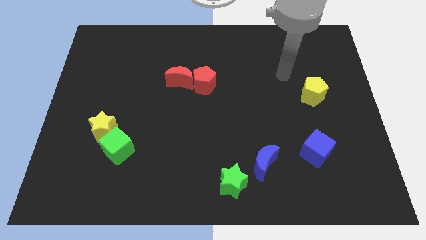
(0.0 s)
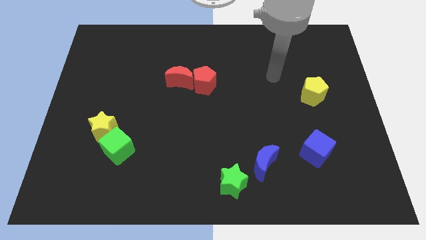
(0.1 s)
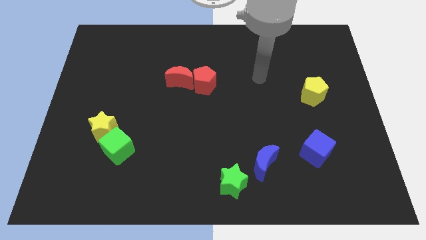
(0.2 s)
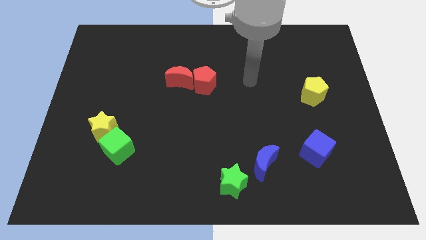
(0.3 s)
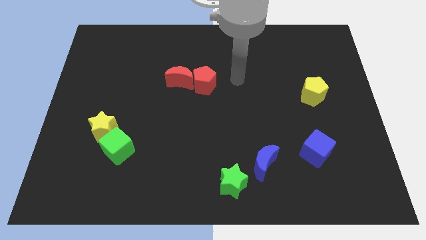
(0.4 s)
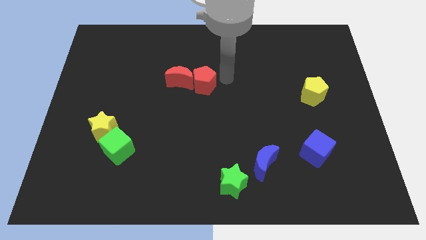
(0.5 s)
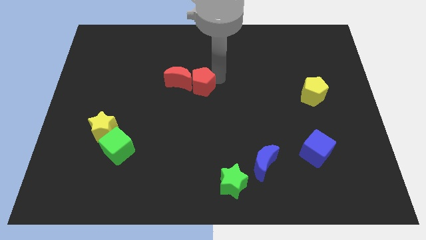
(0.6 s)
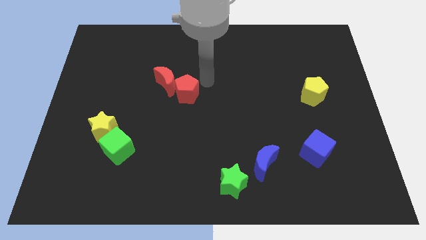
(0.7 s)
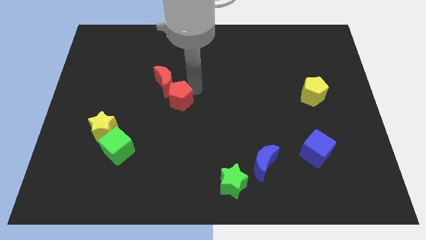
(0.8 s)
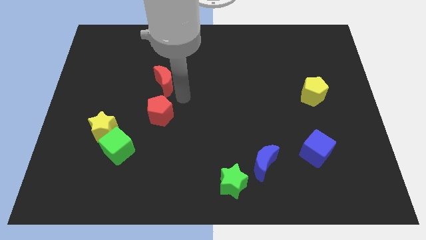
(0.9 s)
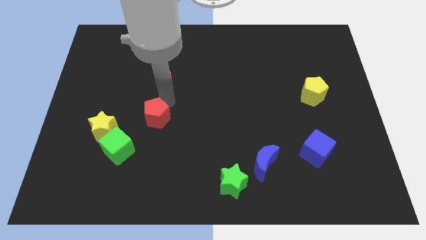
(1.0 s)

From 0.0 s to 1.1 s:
separate the red moon from the red pentagon

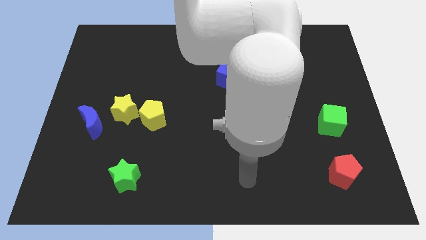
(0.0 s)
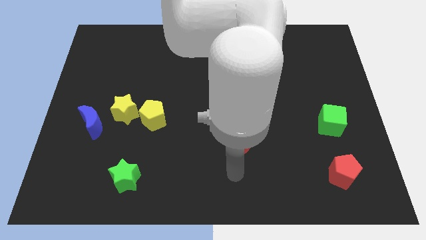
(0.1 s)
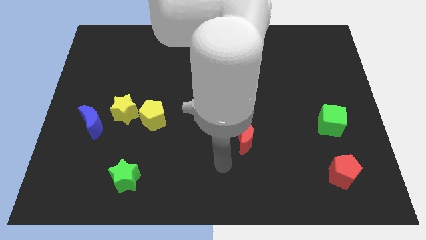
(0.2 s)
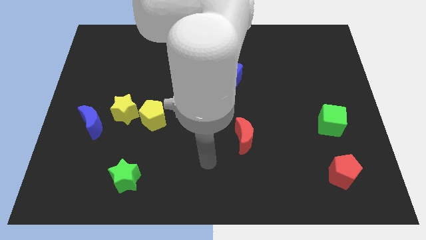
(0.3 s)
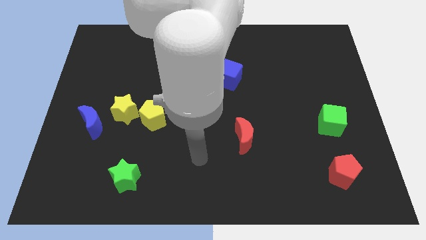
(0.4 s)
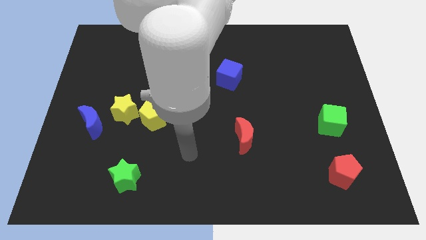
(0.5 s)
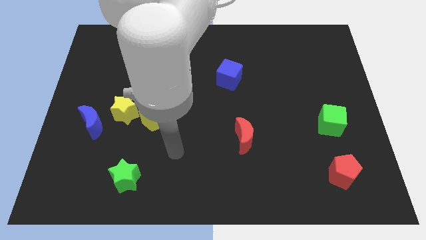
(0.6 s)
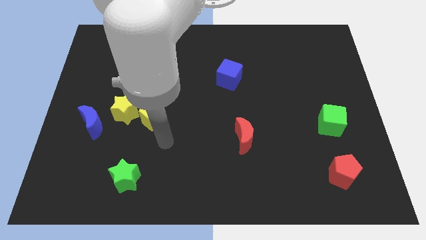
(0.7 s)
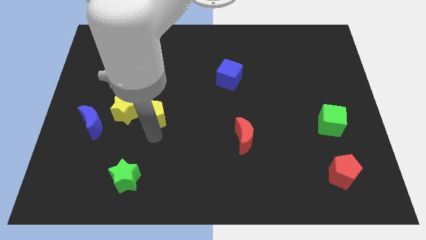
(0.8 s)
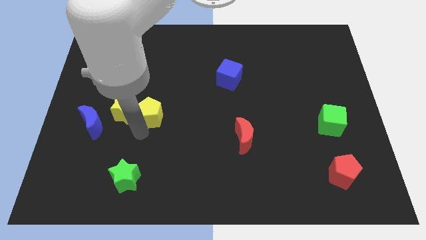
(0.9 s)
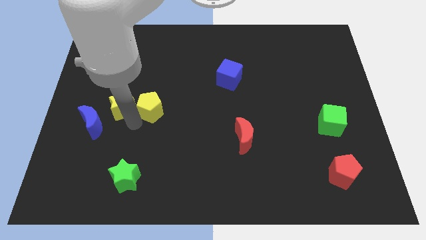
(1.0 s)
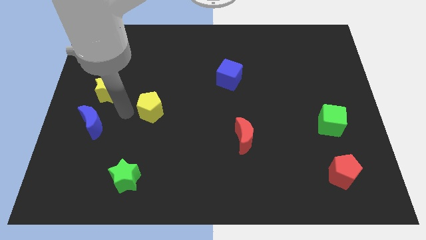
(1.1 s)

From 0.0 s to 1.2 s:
pull the yellow pentagon apart from the yellow star

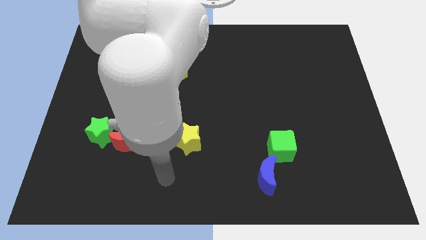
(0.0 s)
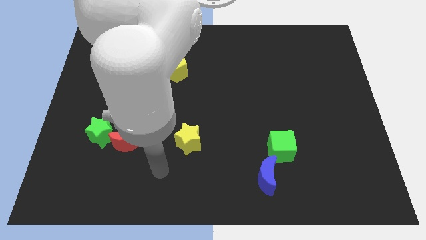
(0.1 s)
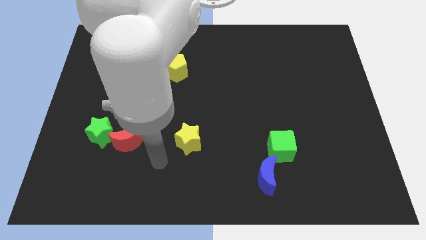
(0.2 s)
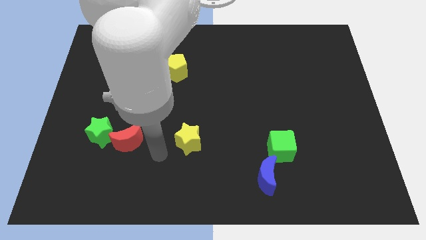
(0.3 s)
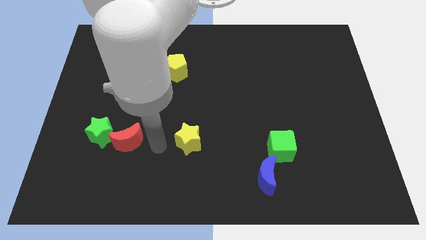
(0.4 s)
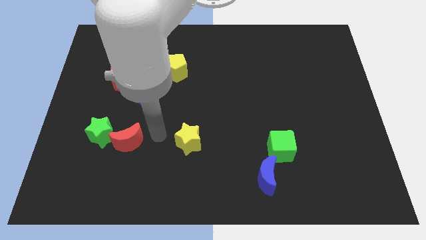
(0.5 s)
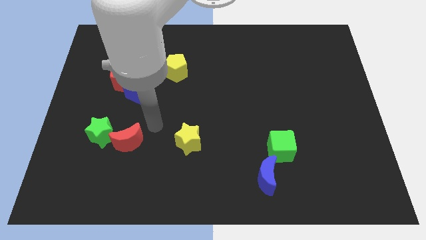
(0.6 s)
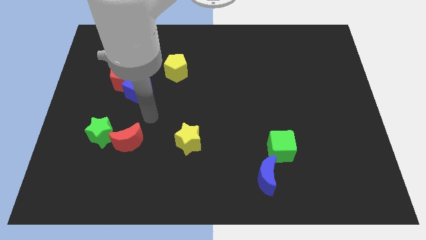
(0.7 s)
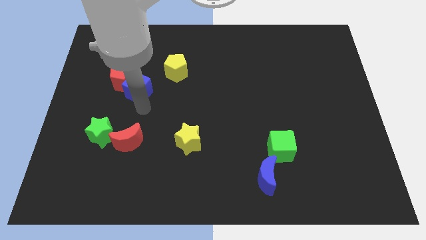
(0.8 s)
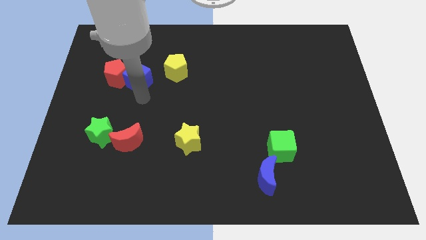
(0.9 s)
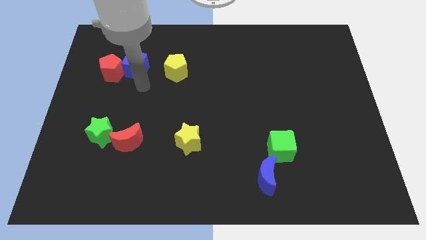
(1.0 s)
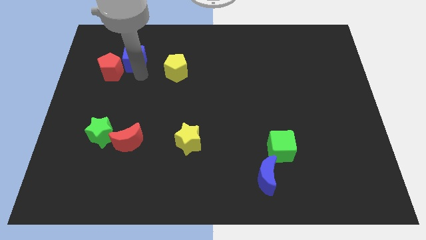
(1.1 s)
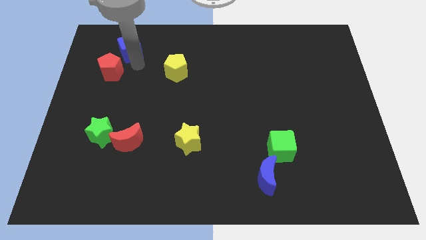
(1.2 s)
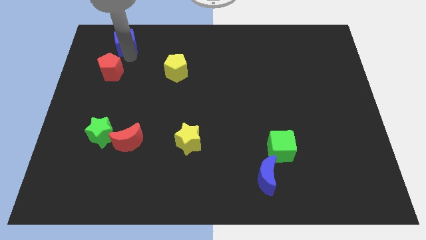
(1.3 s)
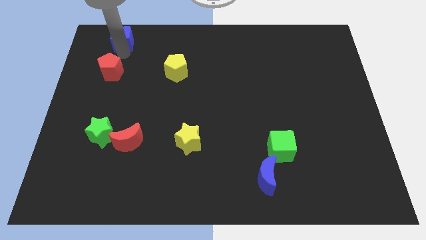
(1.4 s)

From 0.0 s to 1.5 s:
pull the red pentagon apart from the blue cube

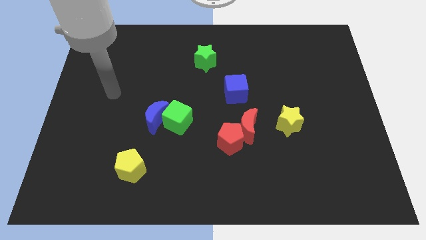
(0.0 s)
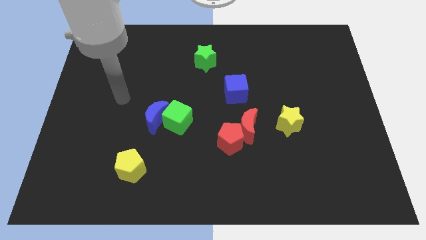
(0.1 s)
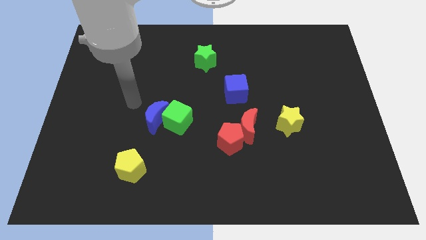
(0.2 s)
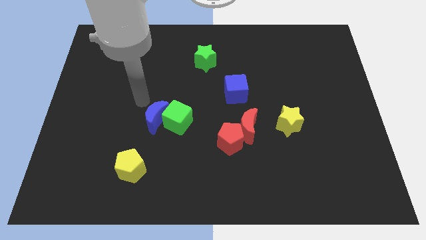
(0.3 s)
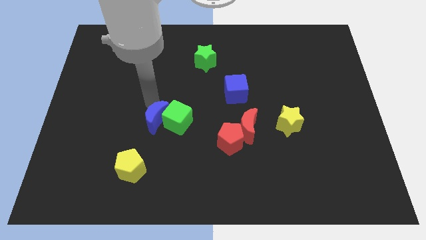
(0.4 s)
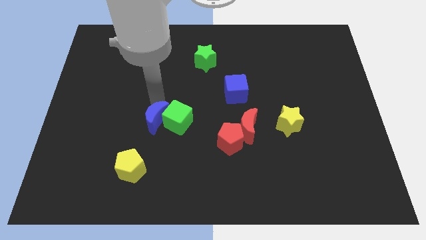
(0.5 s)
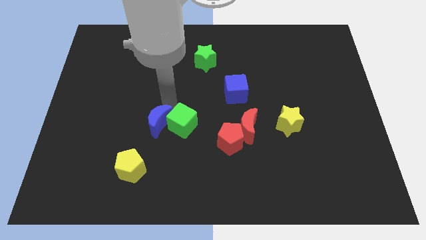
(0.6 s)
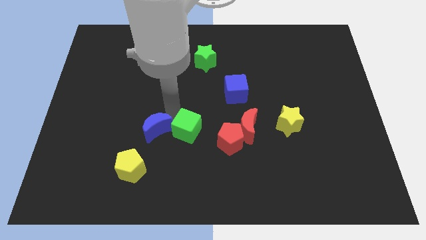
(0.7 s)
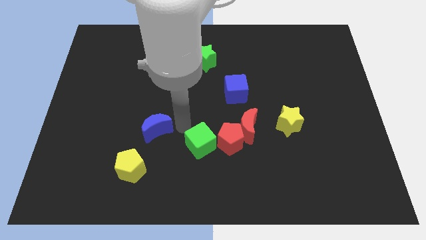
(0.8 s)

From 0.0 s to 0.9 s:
move the blue moon away from the green cube

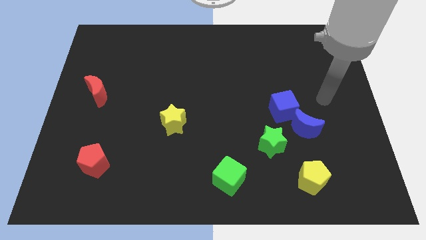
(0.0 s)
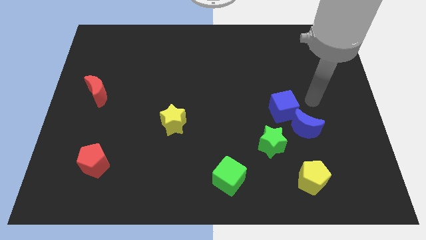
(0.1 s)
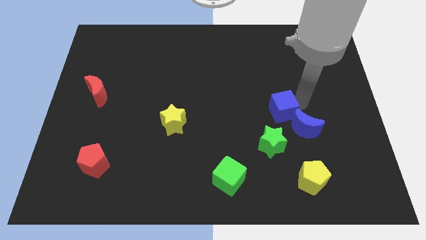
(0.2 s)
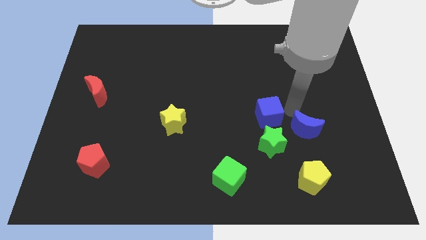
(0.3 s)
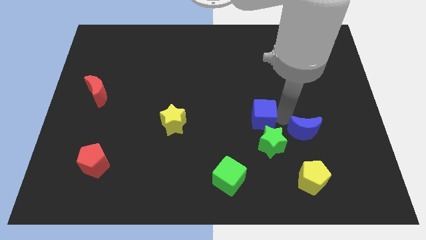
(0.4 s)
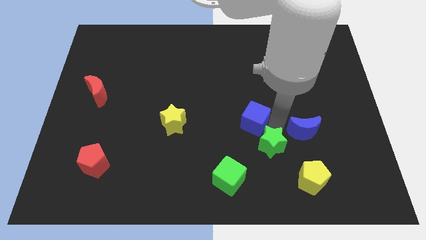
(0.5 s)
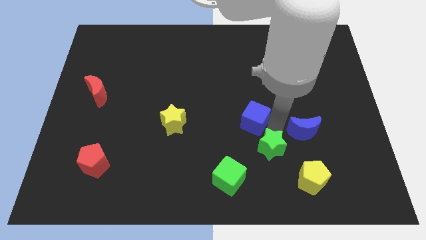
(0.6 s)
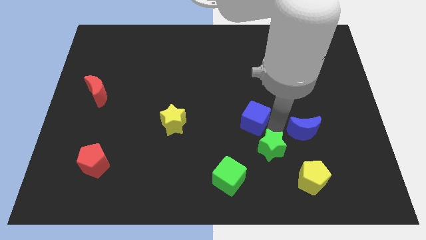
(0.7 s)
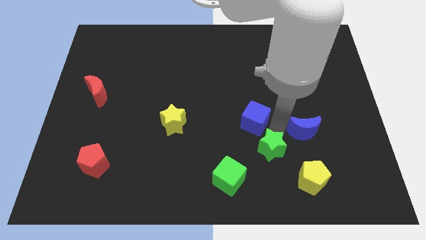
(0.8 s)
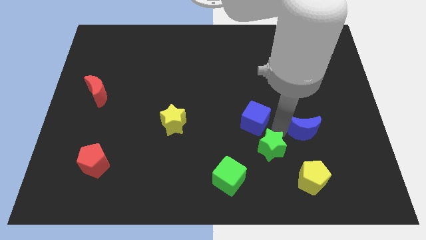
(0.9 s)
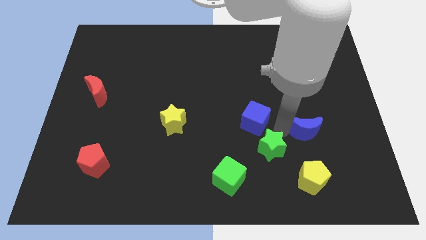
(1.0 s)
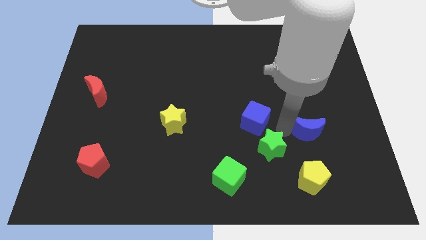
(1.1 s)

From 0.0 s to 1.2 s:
separate the blue moon from the blue cube and green star

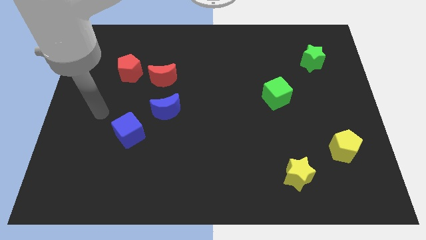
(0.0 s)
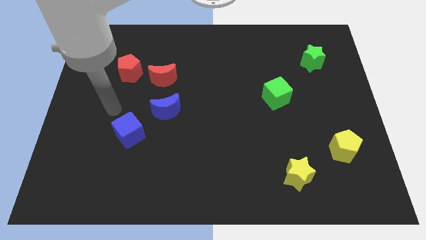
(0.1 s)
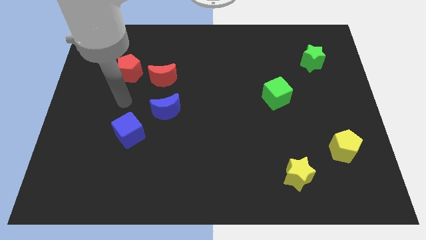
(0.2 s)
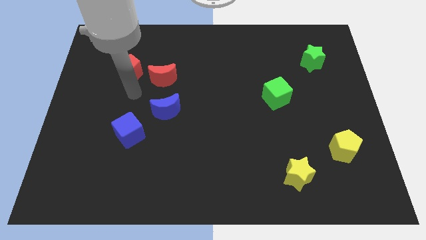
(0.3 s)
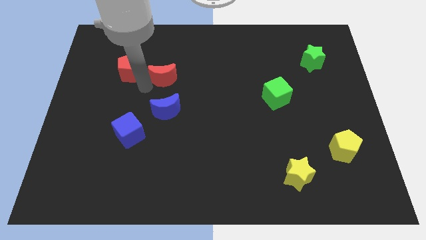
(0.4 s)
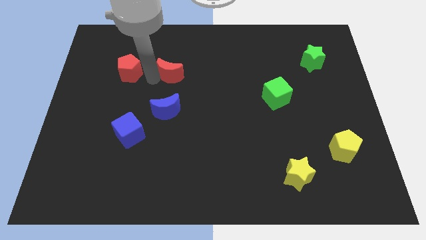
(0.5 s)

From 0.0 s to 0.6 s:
pull the red pentagon apart from the red moon

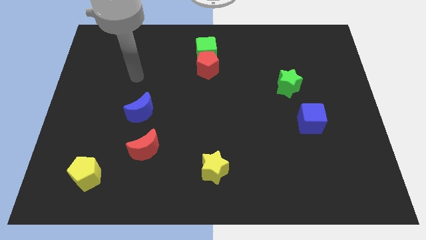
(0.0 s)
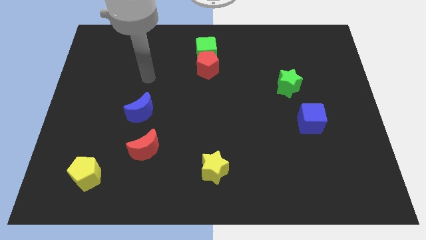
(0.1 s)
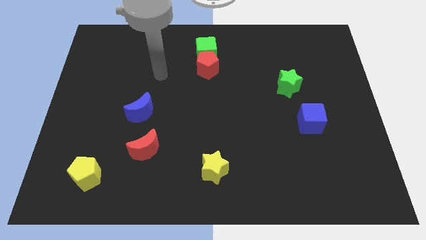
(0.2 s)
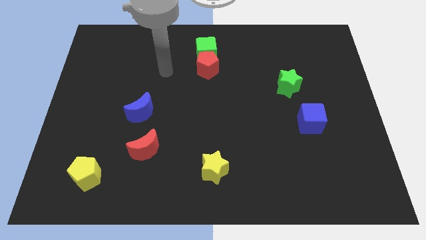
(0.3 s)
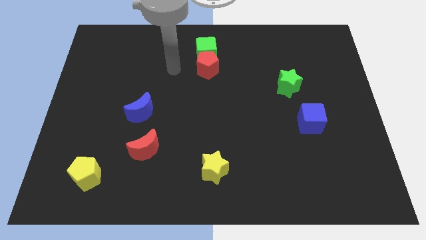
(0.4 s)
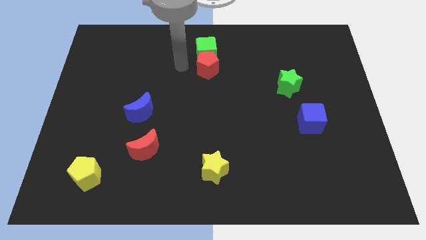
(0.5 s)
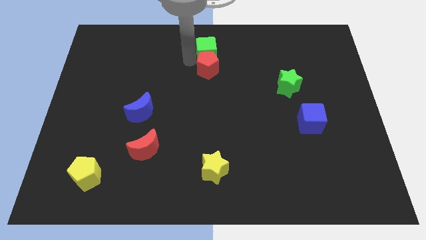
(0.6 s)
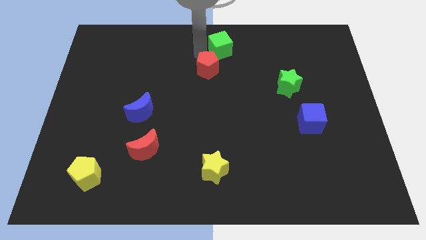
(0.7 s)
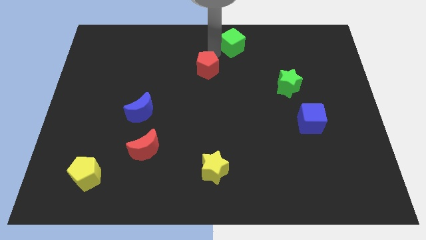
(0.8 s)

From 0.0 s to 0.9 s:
separate the red pentagon from the green cube

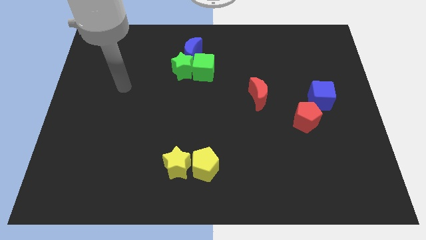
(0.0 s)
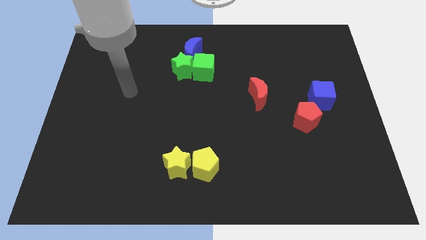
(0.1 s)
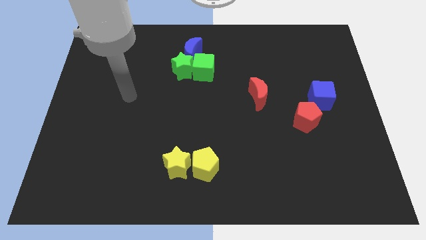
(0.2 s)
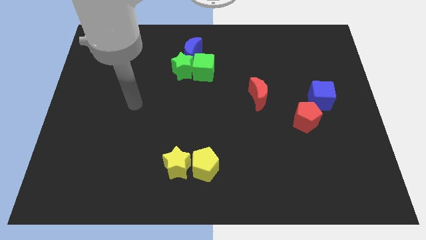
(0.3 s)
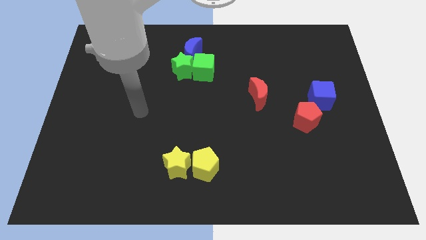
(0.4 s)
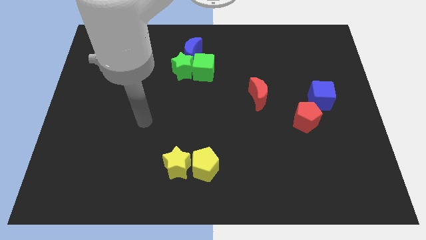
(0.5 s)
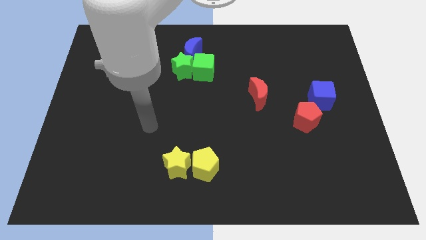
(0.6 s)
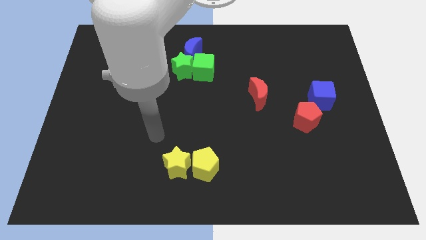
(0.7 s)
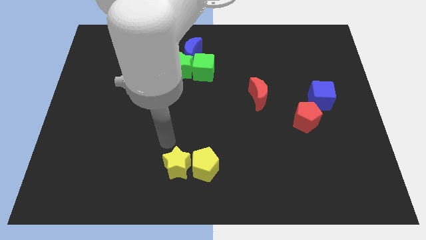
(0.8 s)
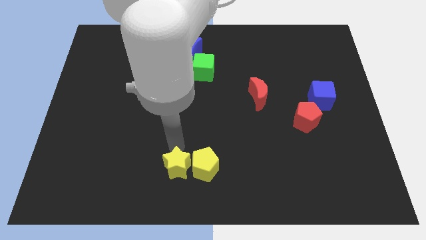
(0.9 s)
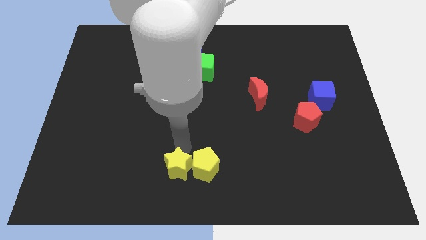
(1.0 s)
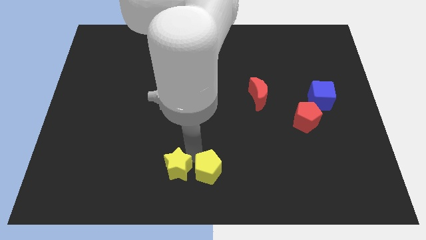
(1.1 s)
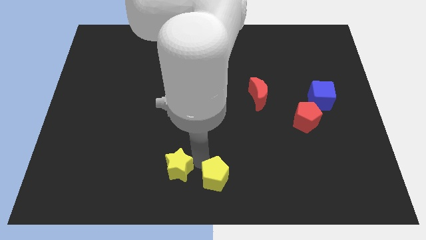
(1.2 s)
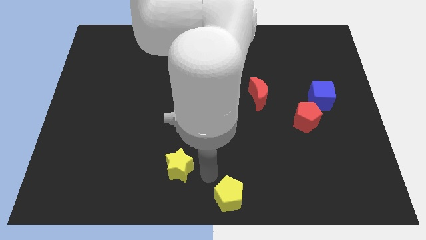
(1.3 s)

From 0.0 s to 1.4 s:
move the yellow star away from the yellow pentagon

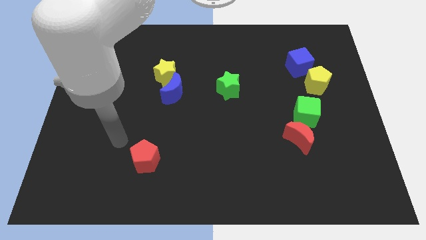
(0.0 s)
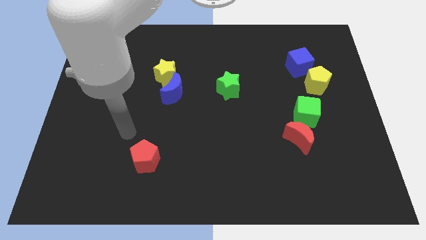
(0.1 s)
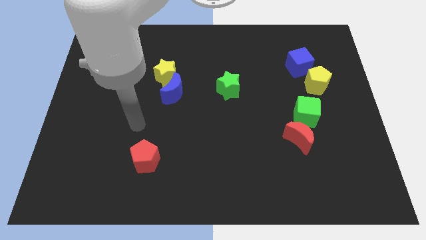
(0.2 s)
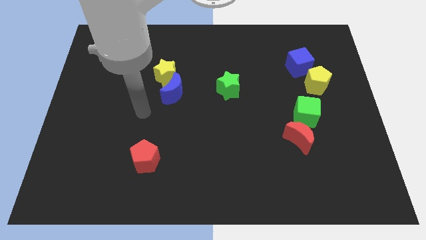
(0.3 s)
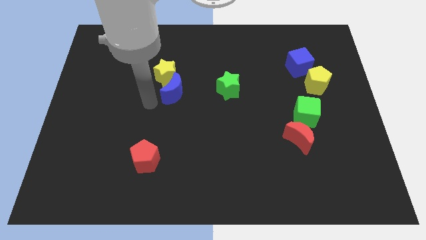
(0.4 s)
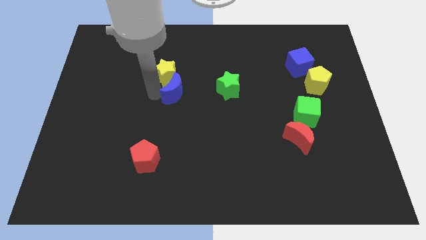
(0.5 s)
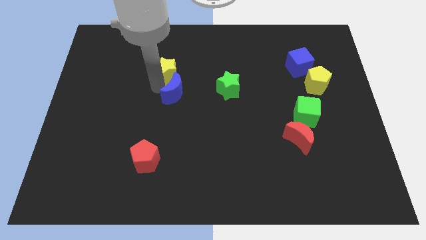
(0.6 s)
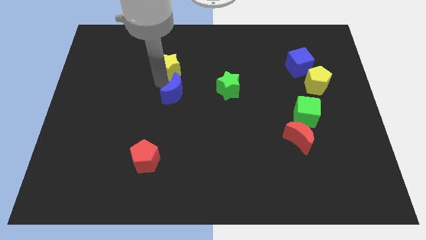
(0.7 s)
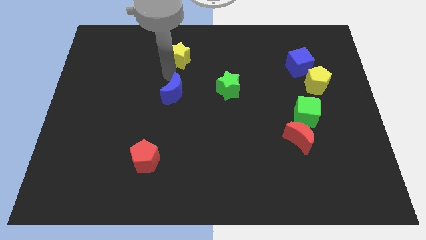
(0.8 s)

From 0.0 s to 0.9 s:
pull the blue moon apart from the yellow star
